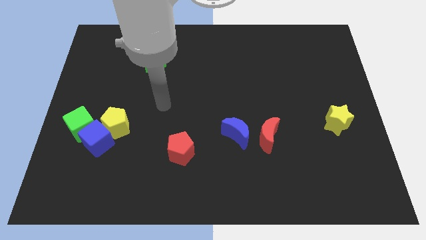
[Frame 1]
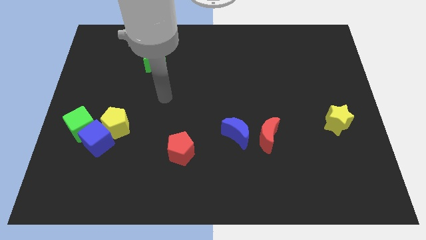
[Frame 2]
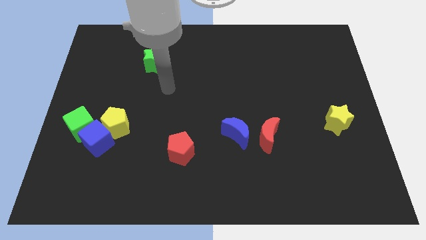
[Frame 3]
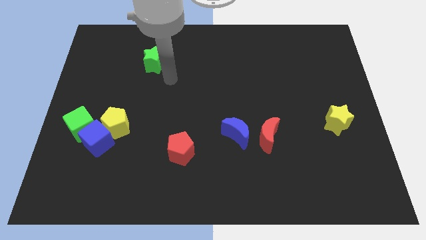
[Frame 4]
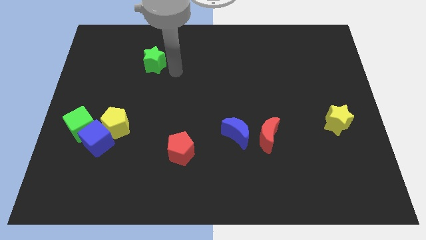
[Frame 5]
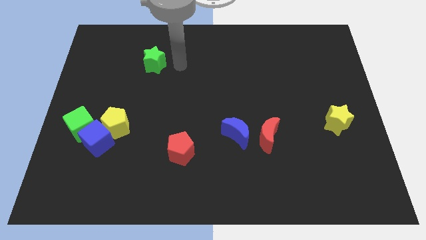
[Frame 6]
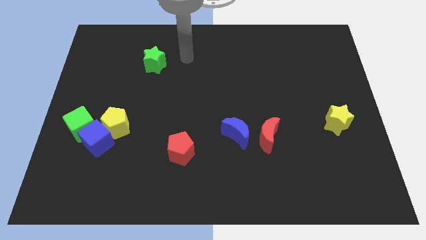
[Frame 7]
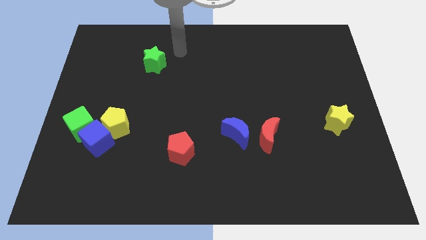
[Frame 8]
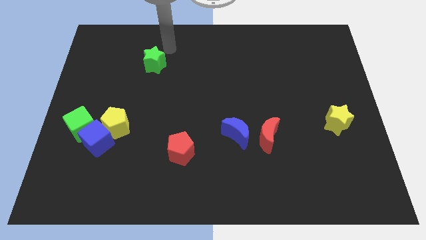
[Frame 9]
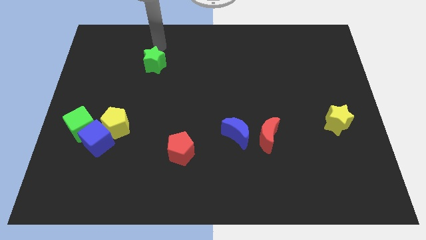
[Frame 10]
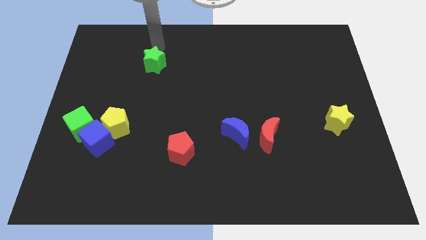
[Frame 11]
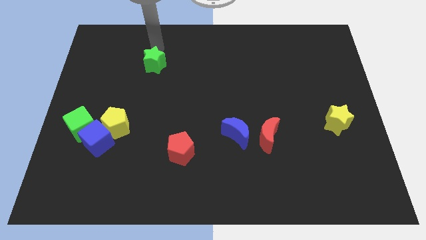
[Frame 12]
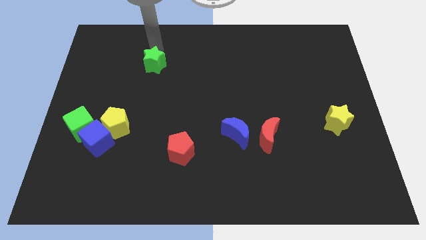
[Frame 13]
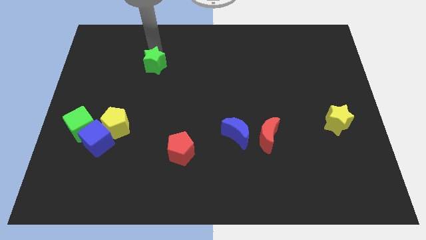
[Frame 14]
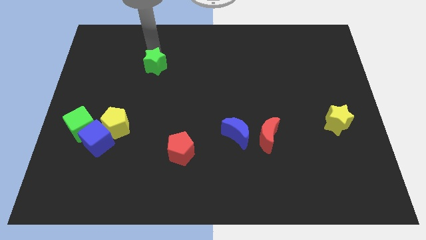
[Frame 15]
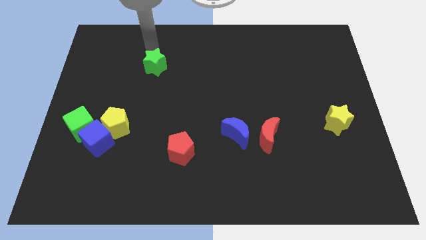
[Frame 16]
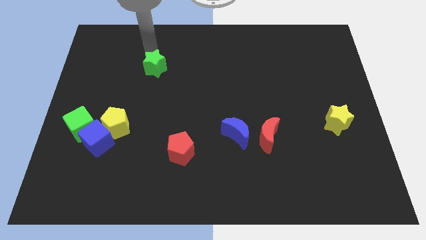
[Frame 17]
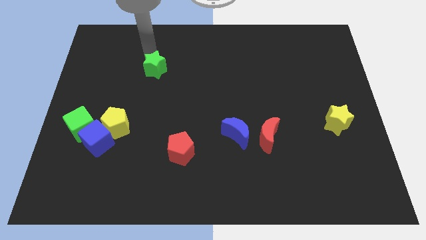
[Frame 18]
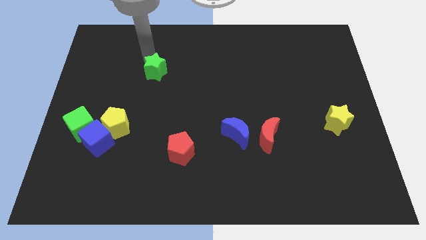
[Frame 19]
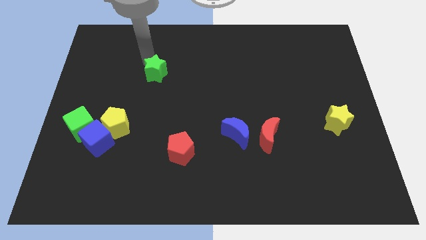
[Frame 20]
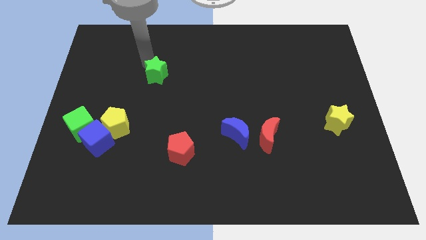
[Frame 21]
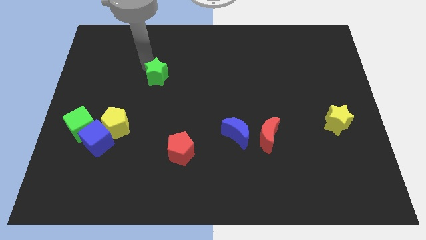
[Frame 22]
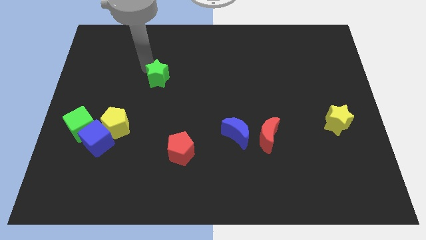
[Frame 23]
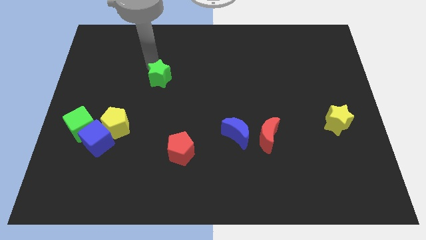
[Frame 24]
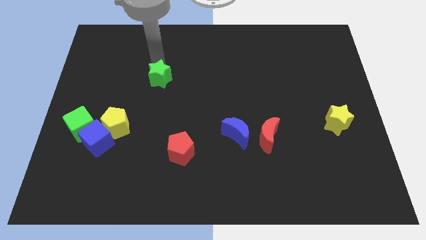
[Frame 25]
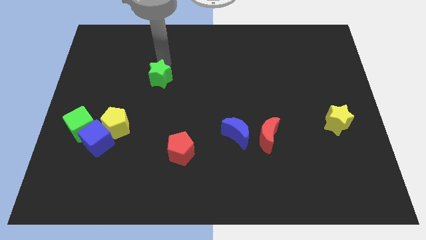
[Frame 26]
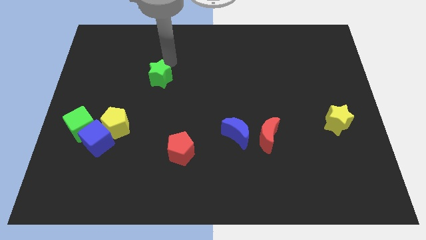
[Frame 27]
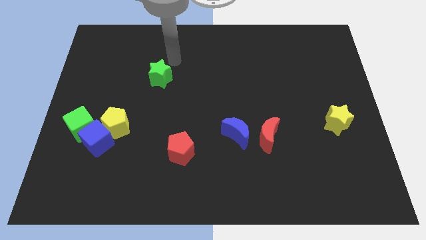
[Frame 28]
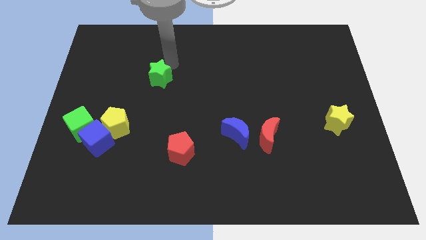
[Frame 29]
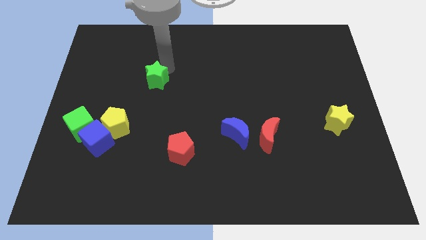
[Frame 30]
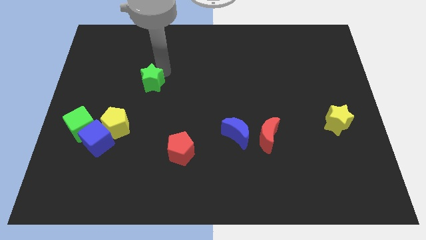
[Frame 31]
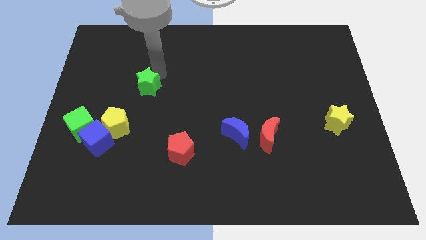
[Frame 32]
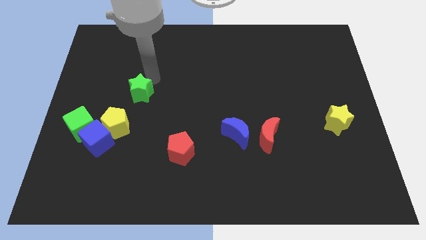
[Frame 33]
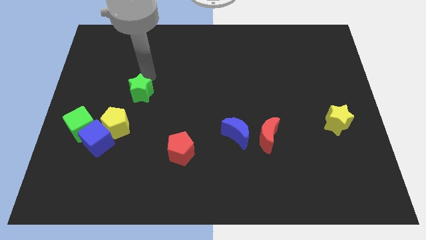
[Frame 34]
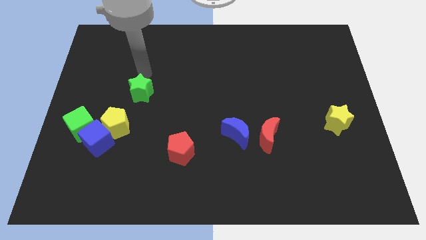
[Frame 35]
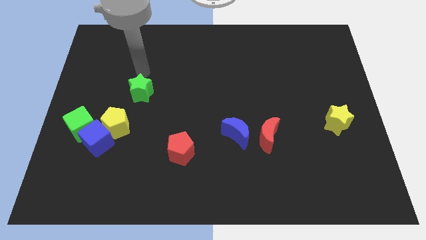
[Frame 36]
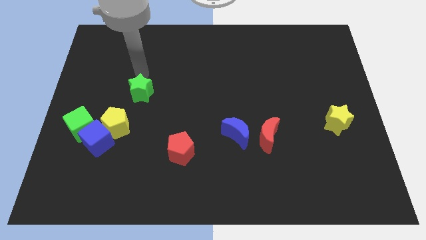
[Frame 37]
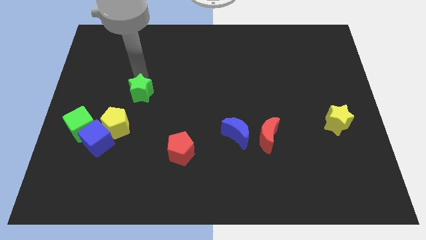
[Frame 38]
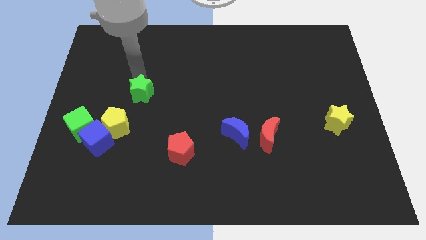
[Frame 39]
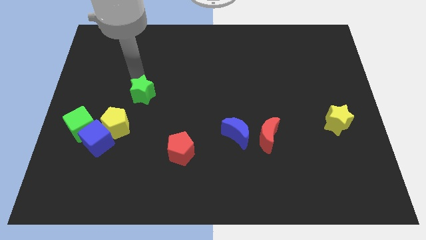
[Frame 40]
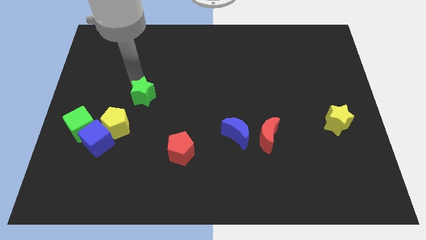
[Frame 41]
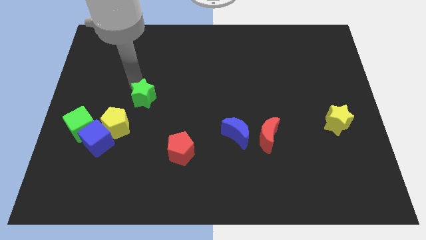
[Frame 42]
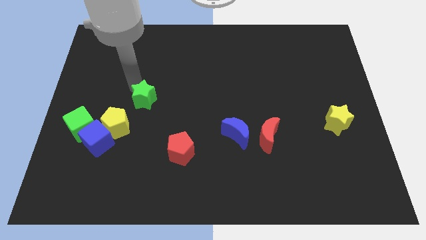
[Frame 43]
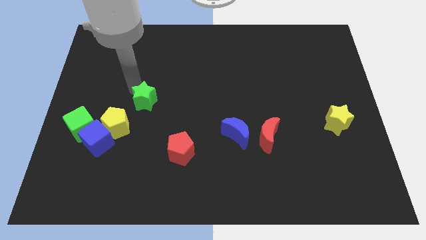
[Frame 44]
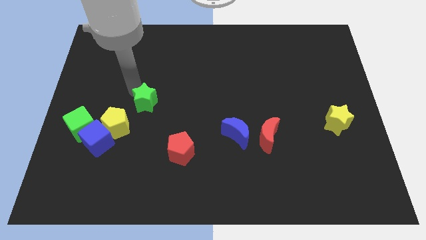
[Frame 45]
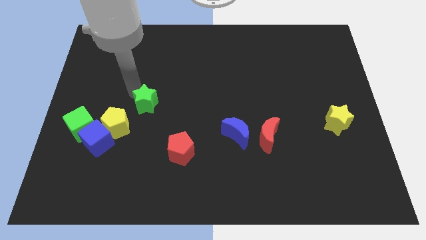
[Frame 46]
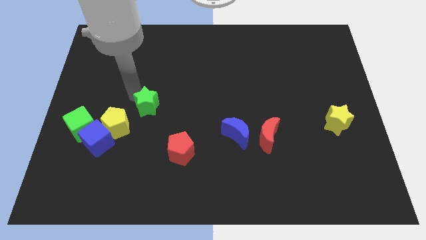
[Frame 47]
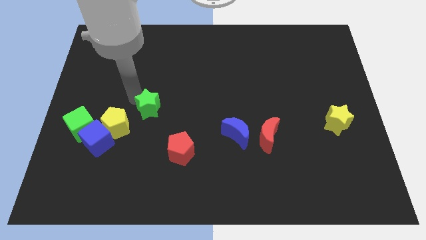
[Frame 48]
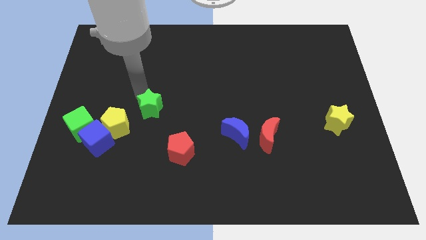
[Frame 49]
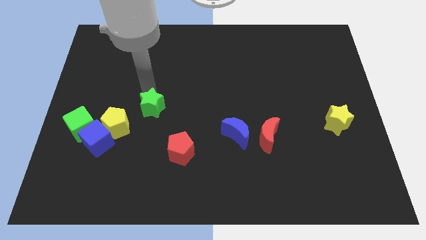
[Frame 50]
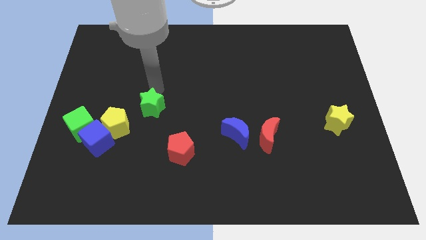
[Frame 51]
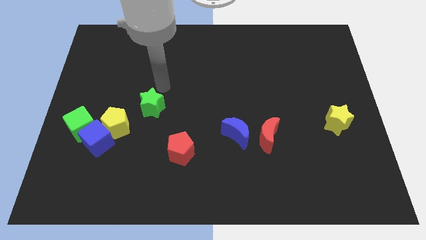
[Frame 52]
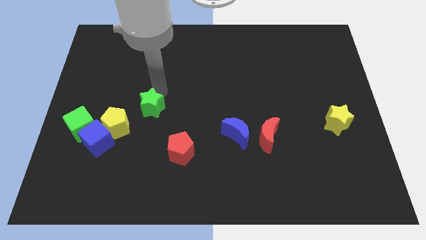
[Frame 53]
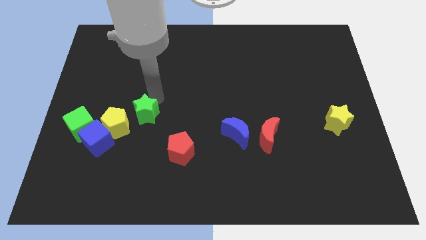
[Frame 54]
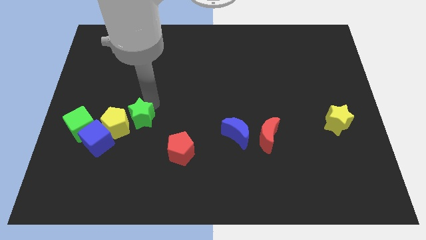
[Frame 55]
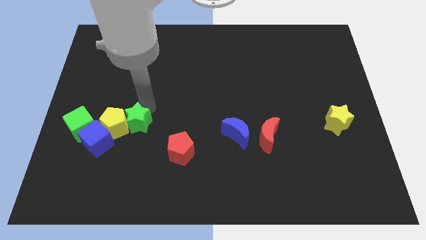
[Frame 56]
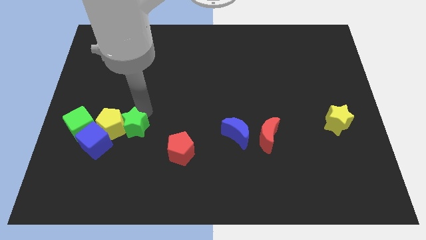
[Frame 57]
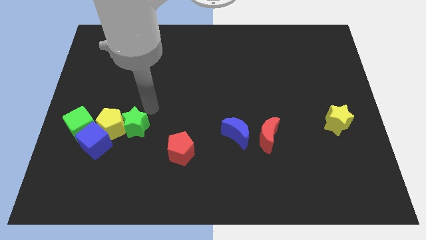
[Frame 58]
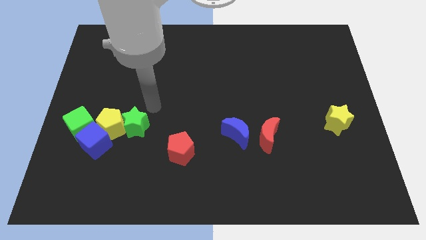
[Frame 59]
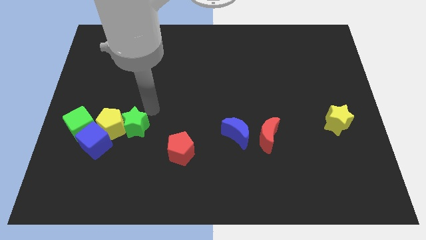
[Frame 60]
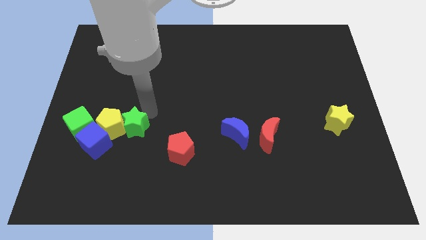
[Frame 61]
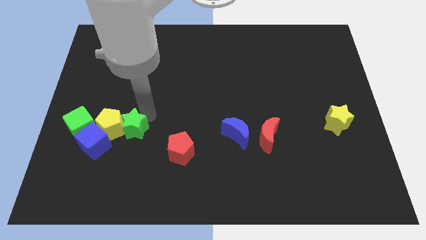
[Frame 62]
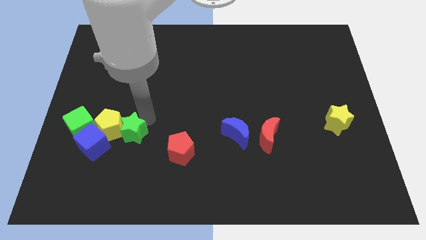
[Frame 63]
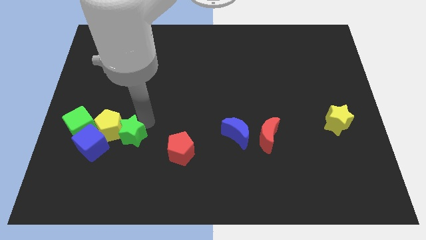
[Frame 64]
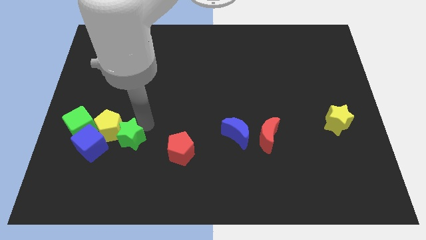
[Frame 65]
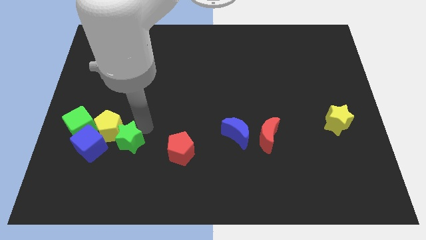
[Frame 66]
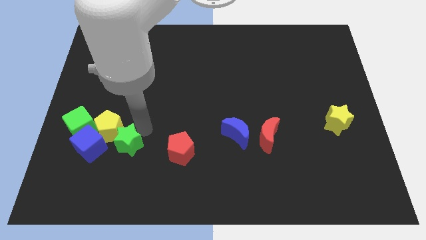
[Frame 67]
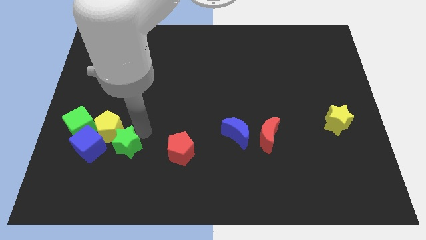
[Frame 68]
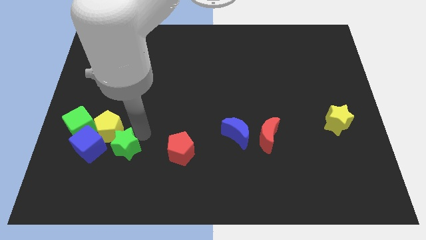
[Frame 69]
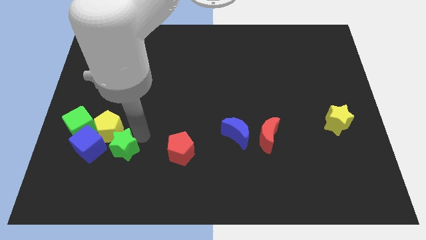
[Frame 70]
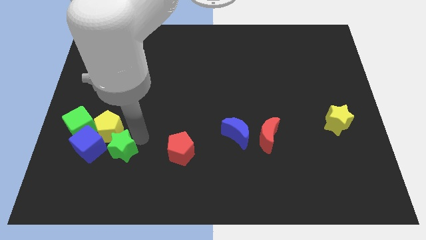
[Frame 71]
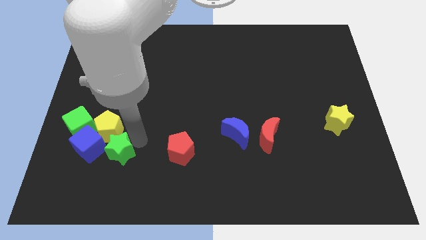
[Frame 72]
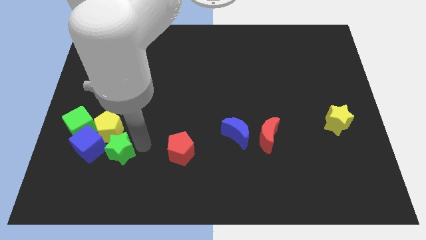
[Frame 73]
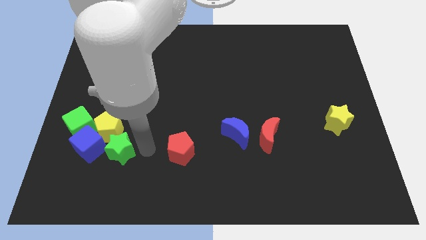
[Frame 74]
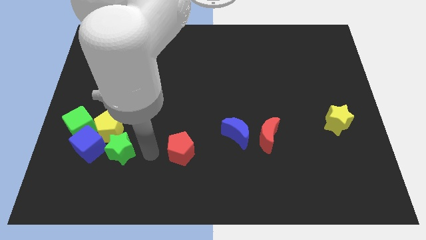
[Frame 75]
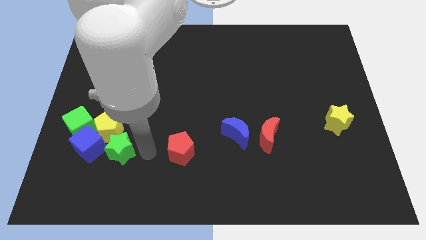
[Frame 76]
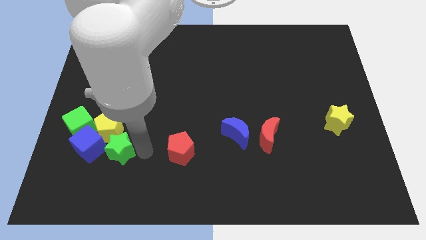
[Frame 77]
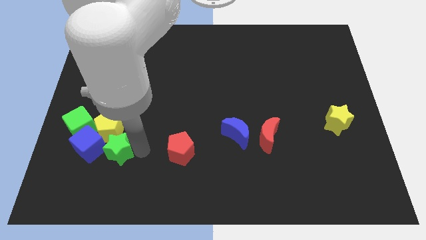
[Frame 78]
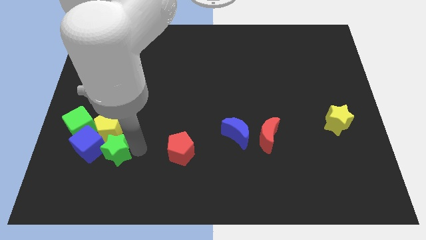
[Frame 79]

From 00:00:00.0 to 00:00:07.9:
slide the green star next to the blue cube
